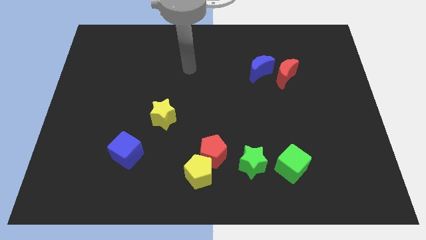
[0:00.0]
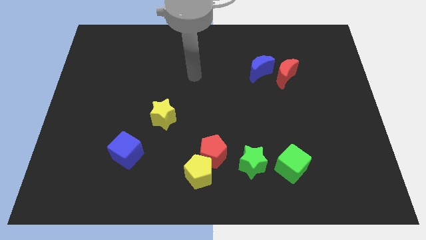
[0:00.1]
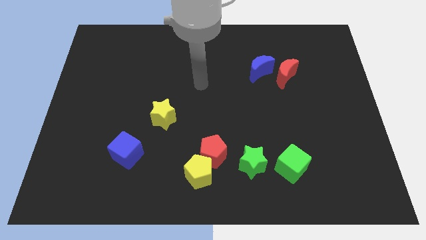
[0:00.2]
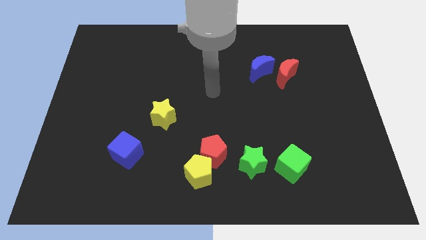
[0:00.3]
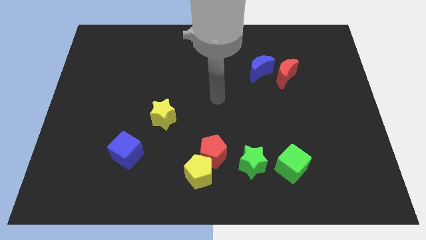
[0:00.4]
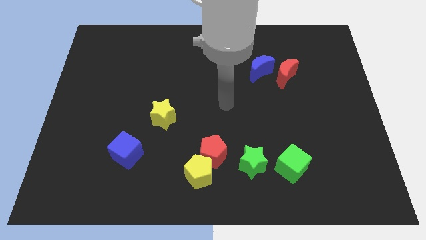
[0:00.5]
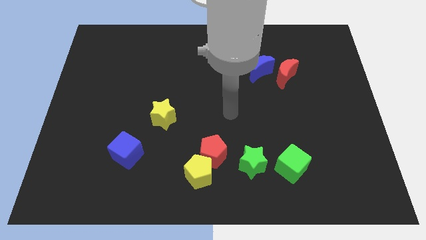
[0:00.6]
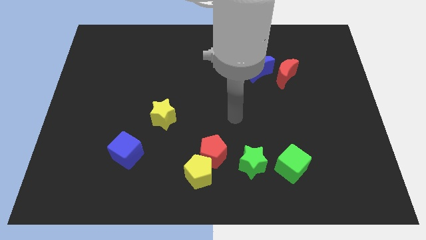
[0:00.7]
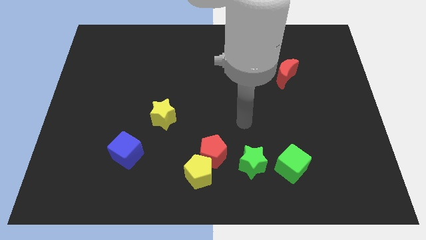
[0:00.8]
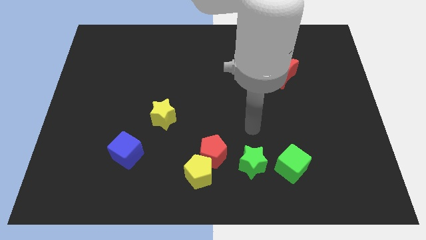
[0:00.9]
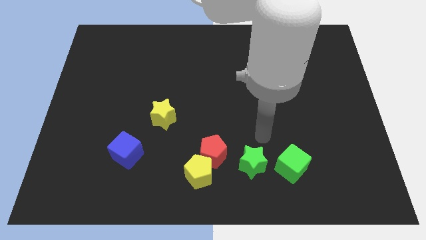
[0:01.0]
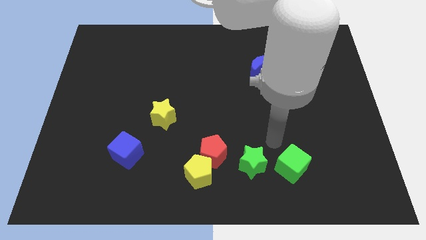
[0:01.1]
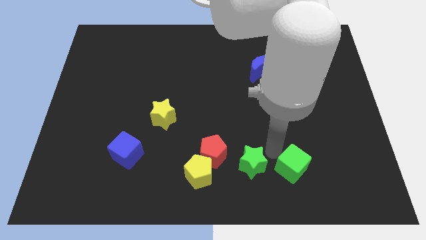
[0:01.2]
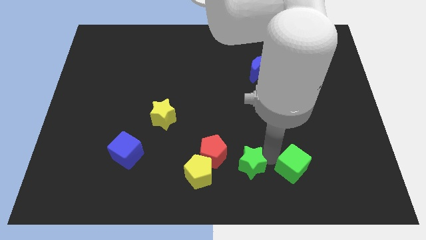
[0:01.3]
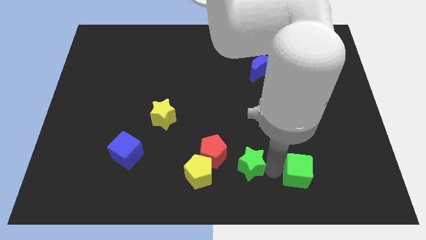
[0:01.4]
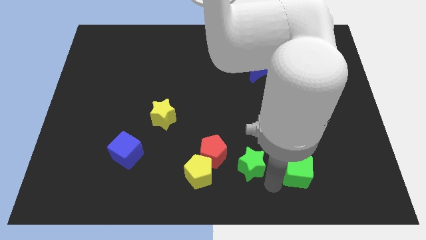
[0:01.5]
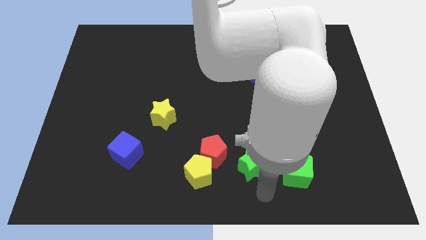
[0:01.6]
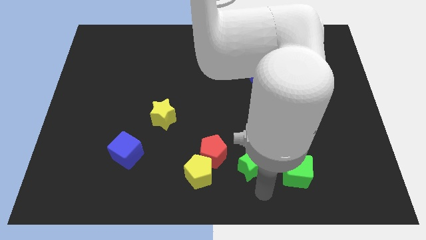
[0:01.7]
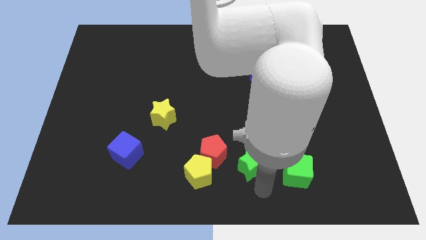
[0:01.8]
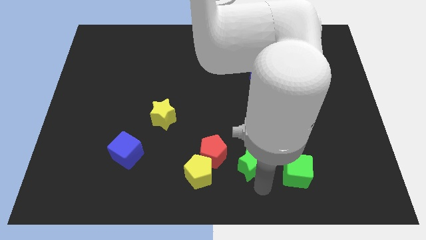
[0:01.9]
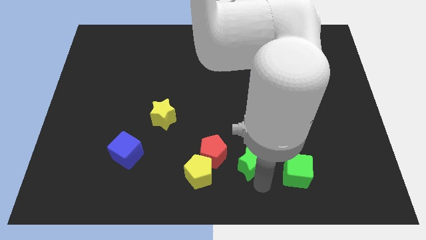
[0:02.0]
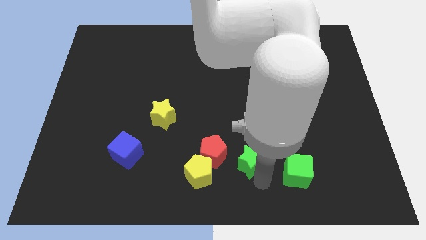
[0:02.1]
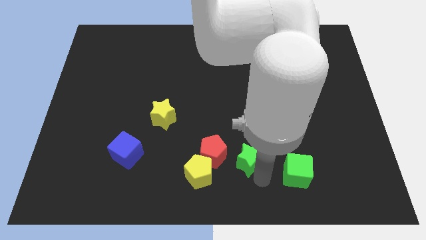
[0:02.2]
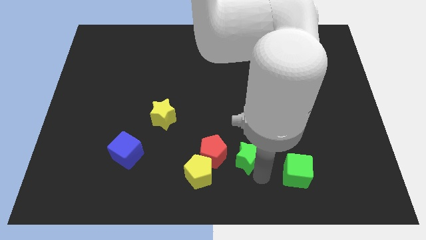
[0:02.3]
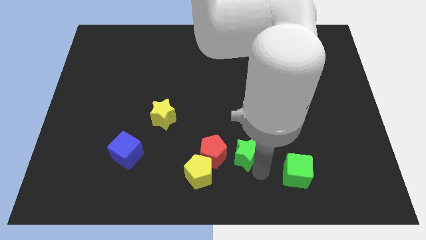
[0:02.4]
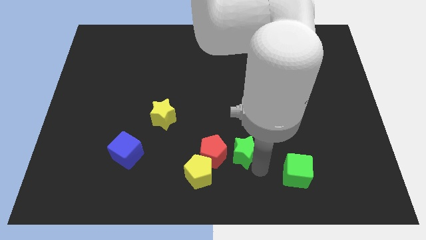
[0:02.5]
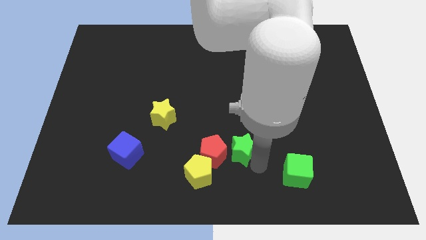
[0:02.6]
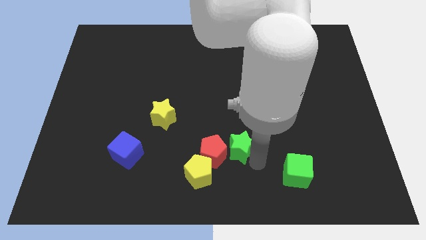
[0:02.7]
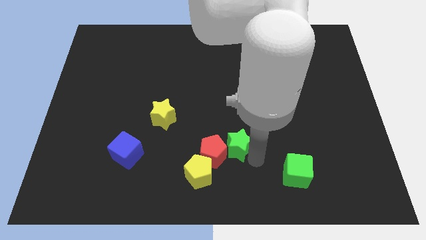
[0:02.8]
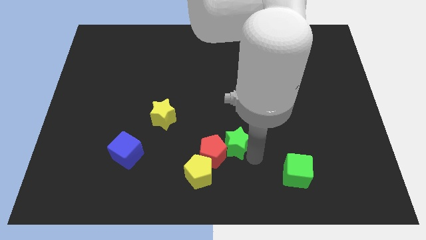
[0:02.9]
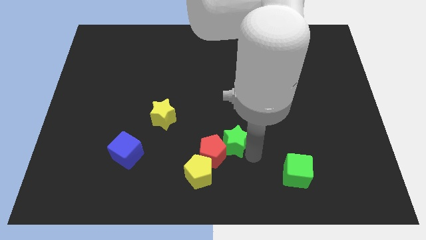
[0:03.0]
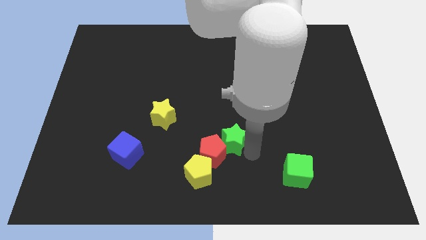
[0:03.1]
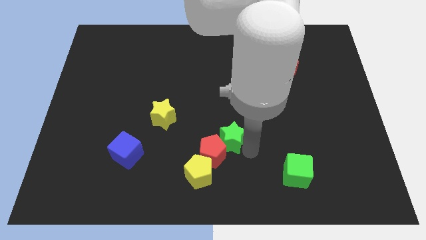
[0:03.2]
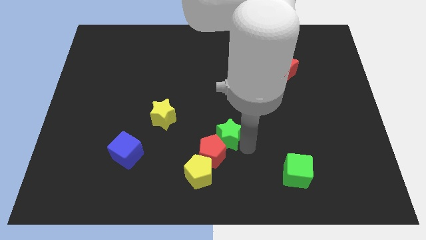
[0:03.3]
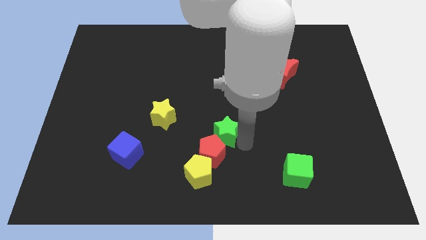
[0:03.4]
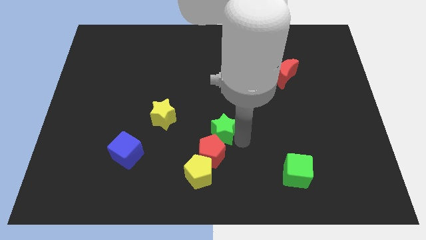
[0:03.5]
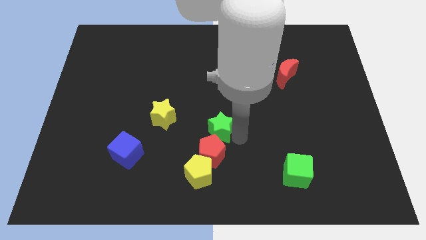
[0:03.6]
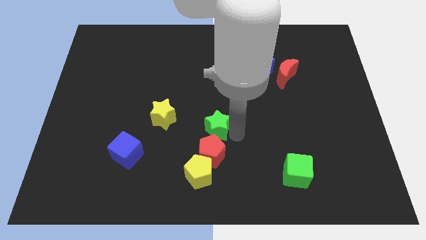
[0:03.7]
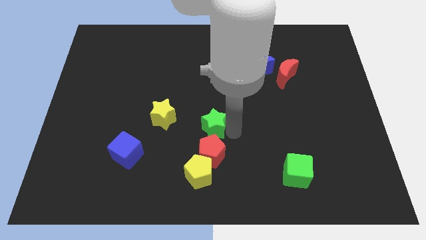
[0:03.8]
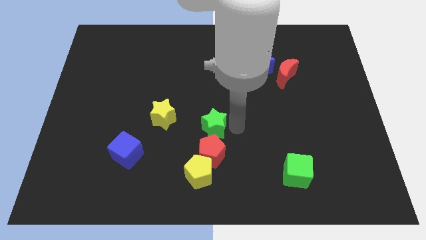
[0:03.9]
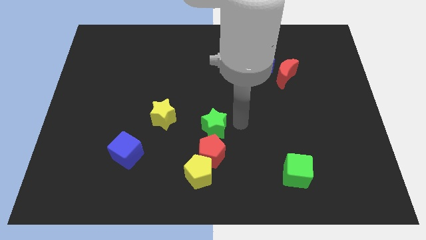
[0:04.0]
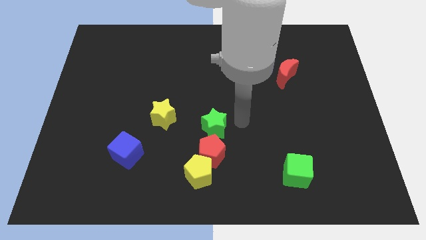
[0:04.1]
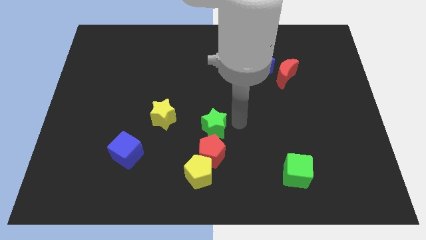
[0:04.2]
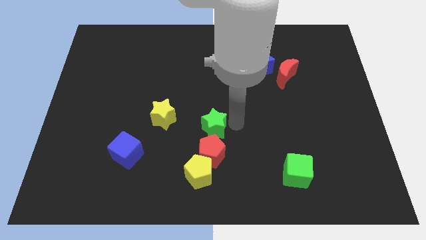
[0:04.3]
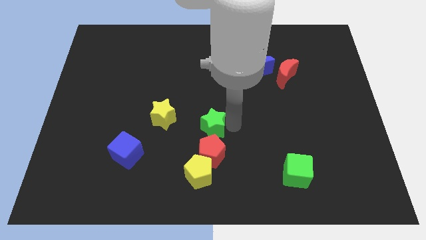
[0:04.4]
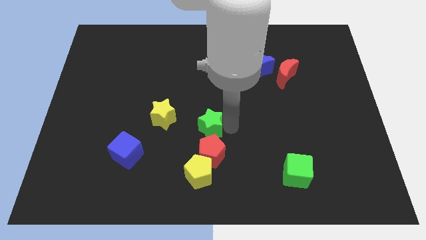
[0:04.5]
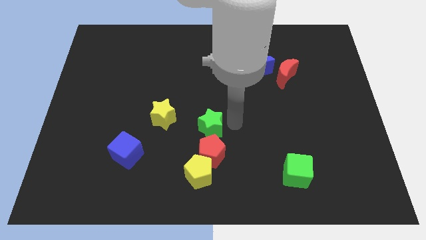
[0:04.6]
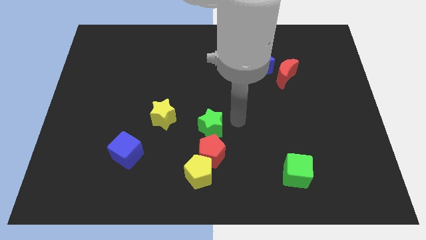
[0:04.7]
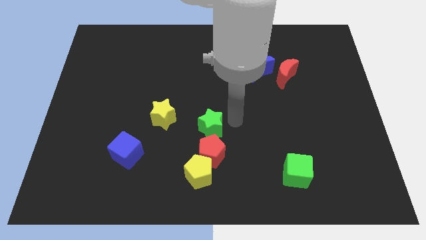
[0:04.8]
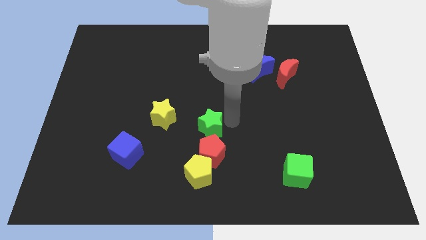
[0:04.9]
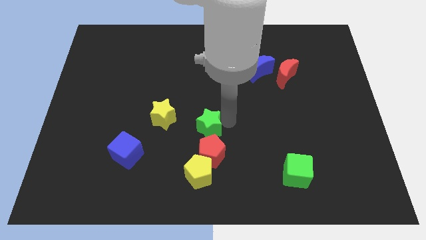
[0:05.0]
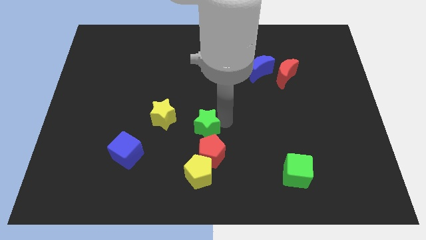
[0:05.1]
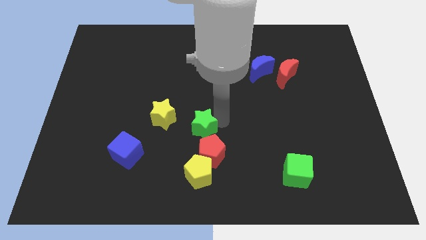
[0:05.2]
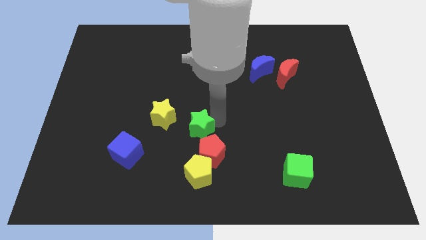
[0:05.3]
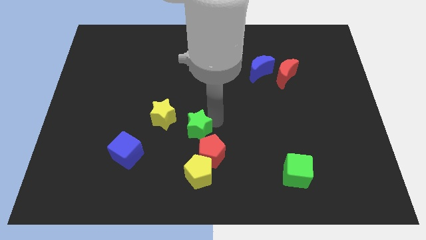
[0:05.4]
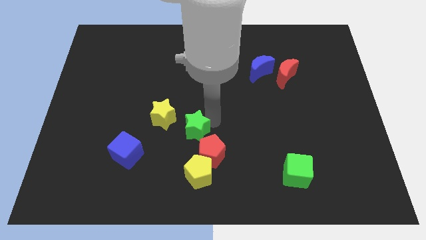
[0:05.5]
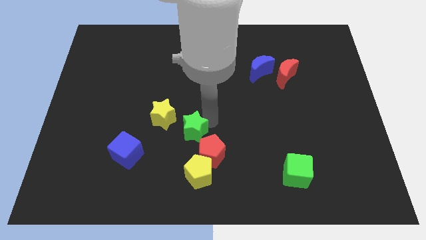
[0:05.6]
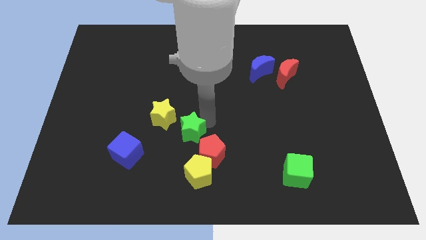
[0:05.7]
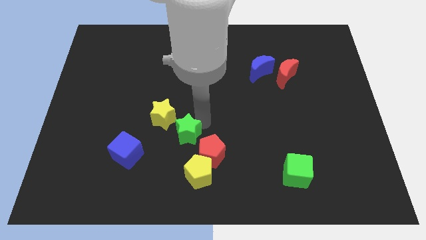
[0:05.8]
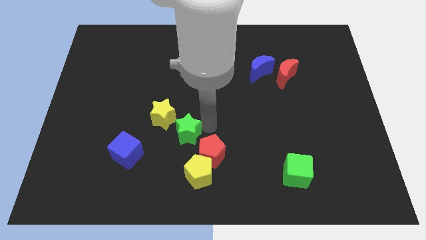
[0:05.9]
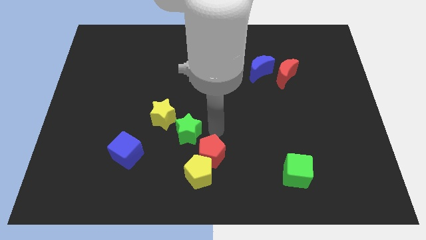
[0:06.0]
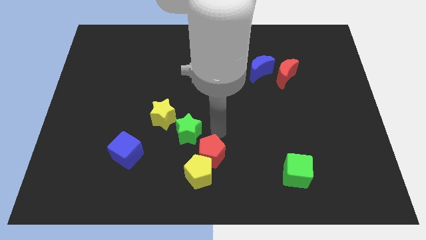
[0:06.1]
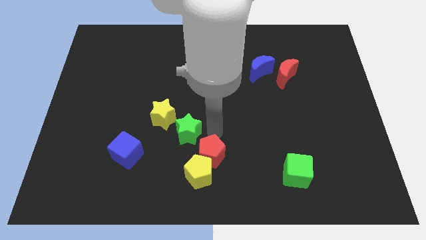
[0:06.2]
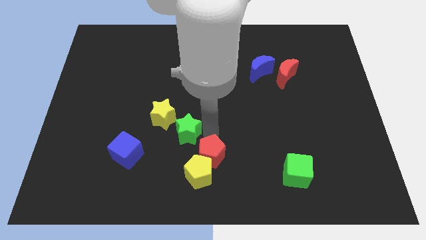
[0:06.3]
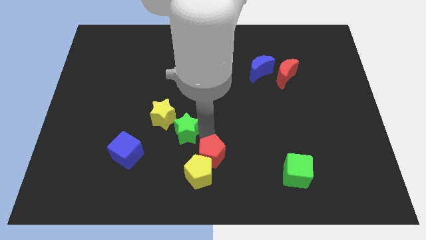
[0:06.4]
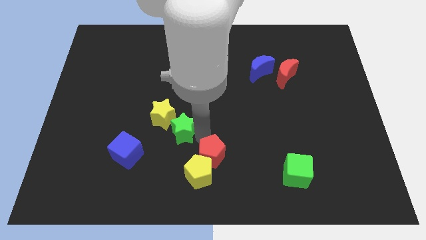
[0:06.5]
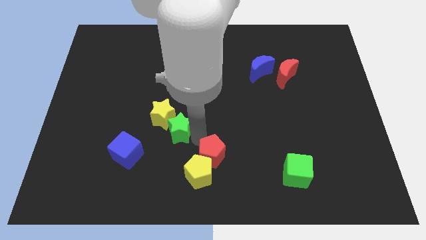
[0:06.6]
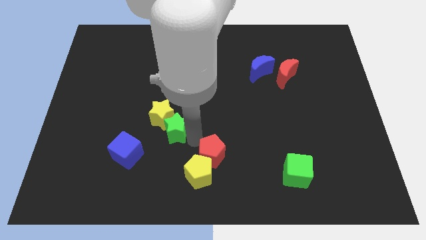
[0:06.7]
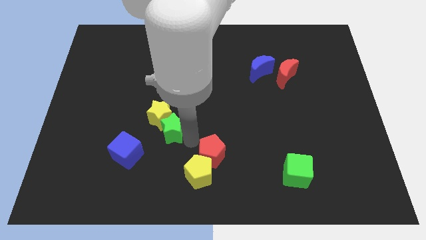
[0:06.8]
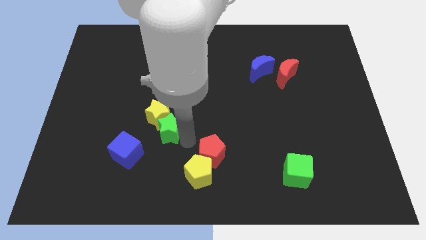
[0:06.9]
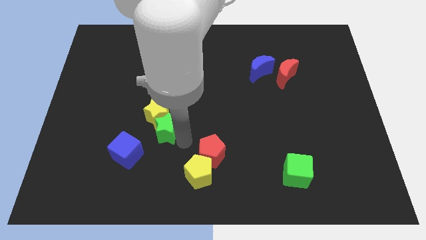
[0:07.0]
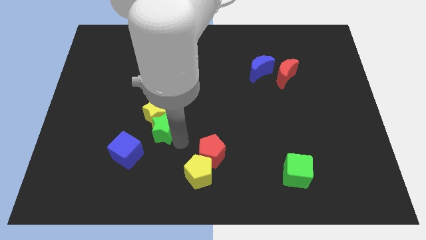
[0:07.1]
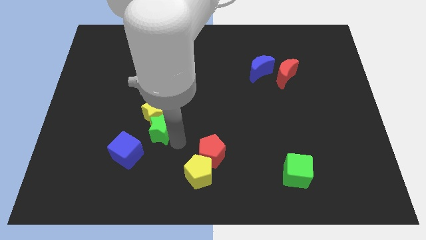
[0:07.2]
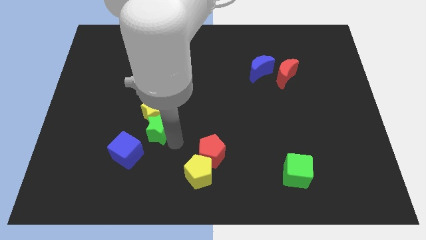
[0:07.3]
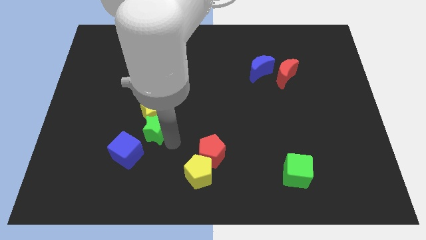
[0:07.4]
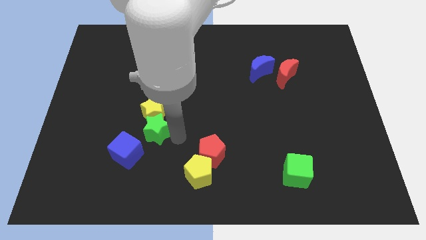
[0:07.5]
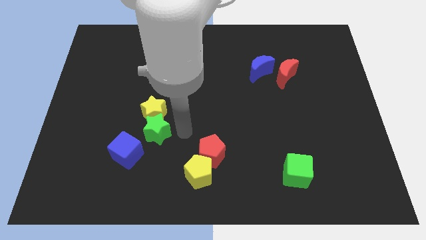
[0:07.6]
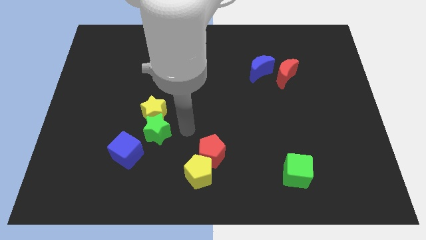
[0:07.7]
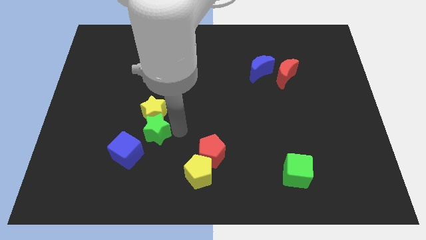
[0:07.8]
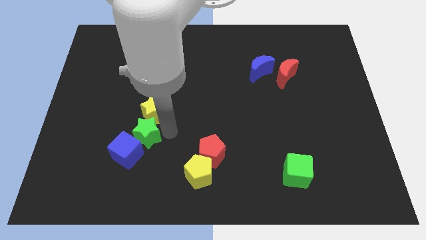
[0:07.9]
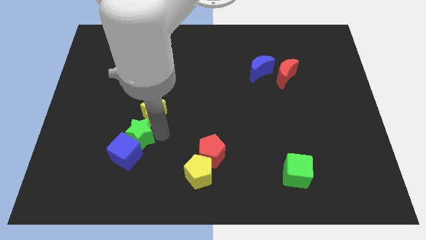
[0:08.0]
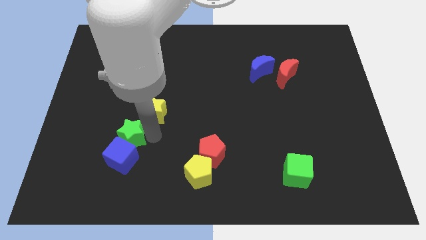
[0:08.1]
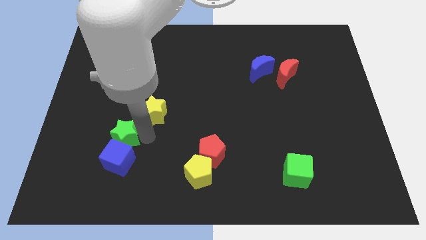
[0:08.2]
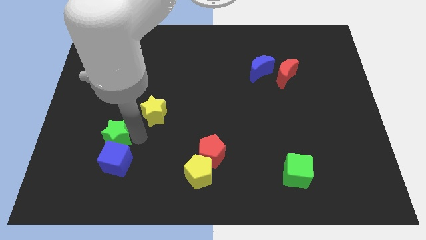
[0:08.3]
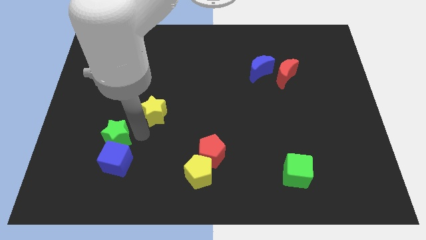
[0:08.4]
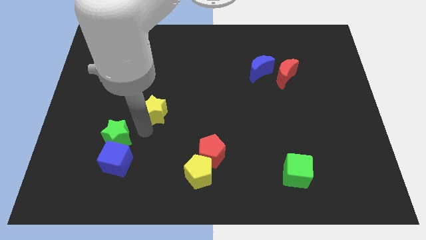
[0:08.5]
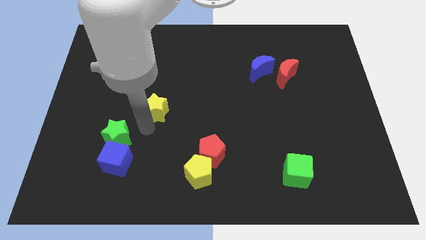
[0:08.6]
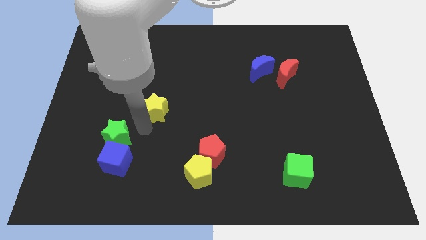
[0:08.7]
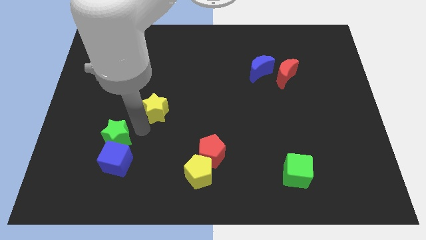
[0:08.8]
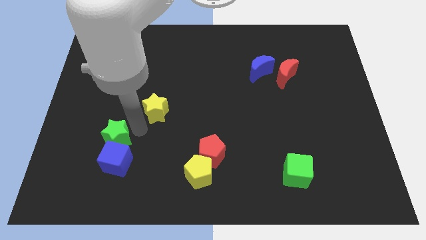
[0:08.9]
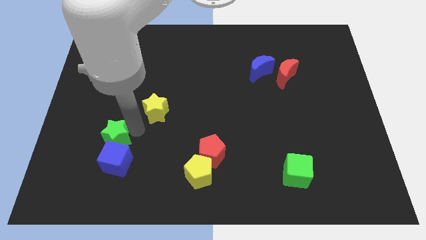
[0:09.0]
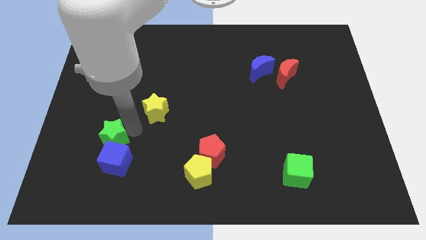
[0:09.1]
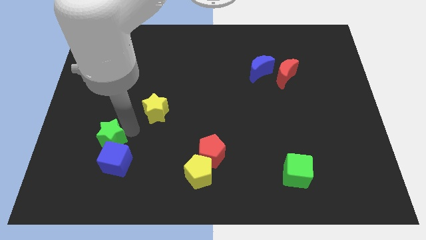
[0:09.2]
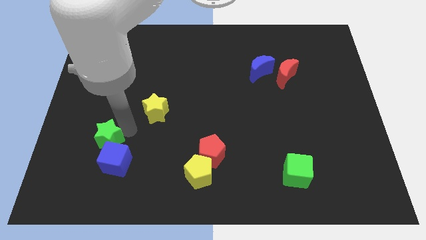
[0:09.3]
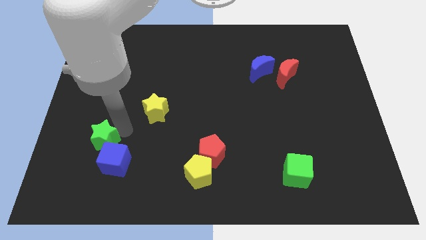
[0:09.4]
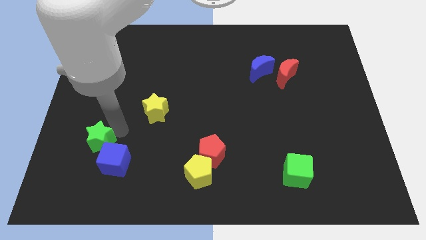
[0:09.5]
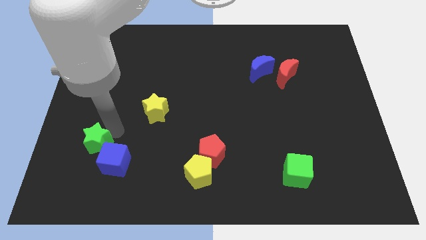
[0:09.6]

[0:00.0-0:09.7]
move the green star just left of the blue cube
